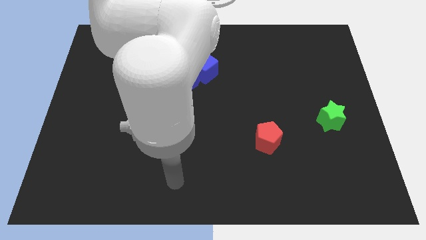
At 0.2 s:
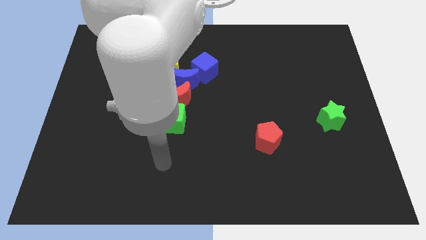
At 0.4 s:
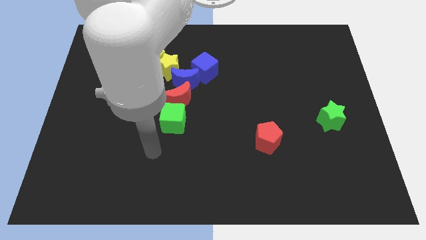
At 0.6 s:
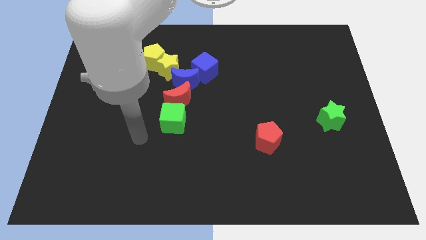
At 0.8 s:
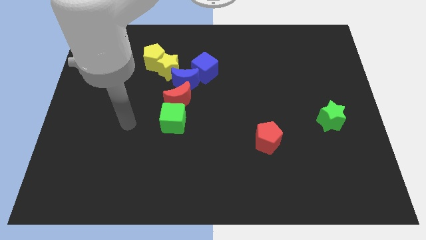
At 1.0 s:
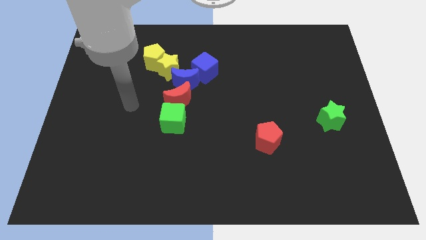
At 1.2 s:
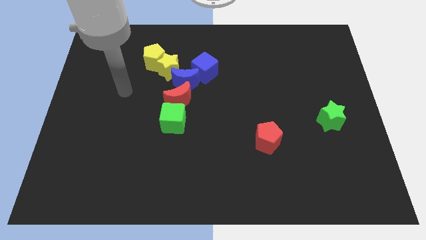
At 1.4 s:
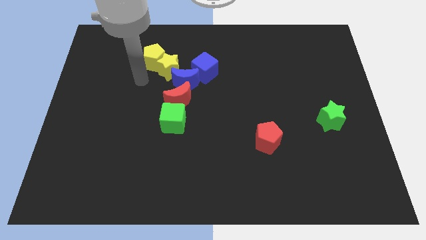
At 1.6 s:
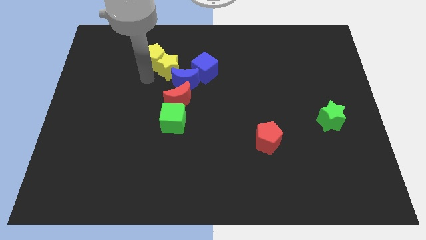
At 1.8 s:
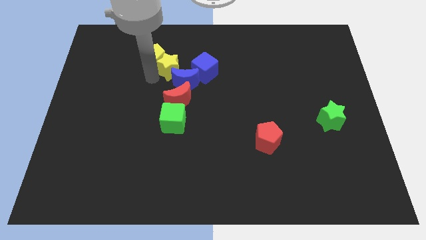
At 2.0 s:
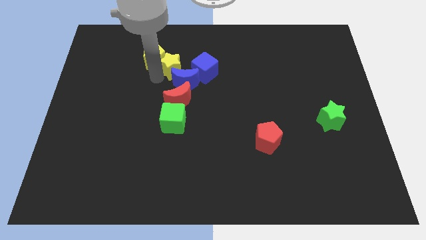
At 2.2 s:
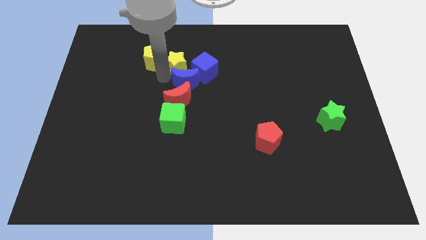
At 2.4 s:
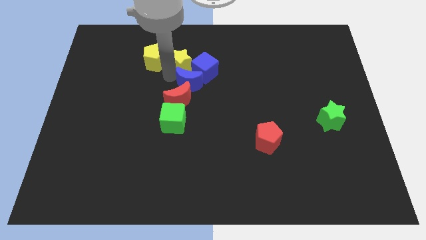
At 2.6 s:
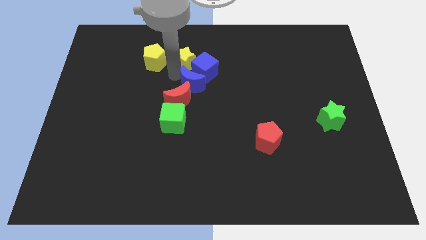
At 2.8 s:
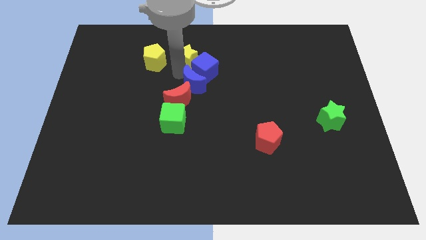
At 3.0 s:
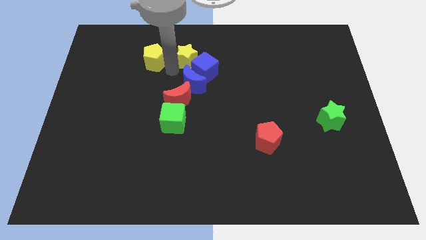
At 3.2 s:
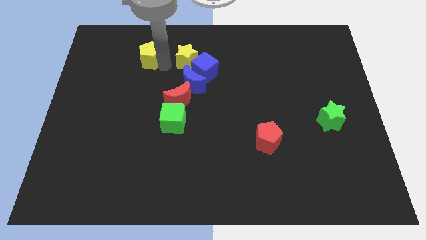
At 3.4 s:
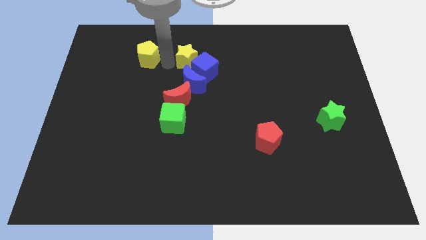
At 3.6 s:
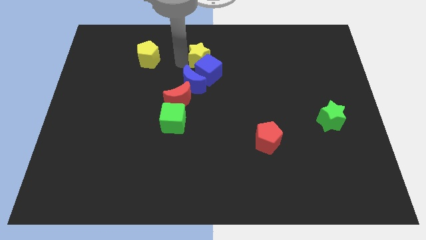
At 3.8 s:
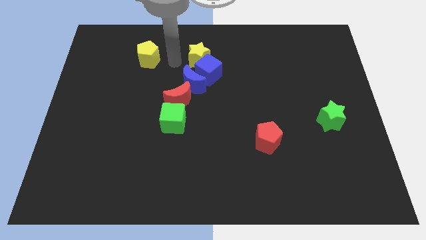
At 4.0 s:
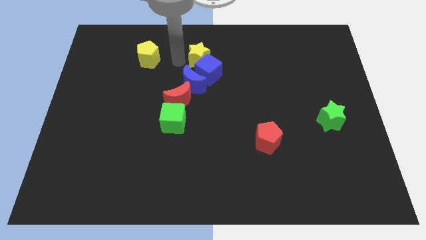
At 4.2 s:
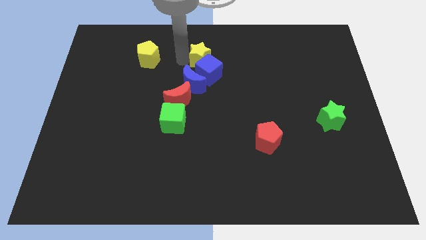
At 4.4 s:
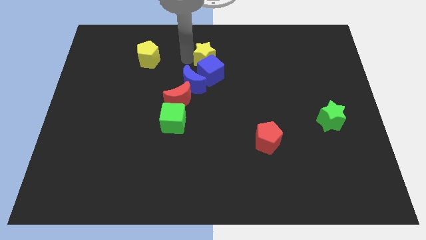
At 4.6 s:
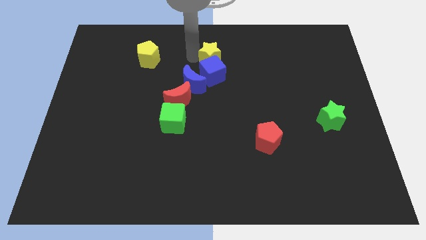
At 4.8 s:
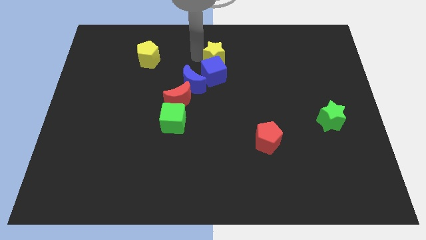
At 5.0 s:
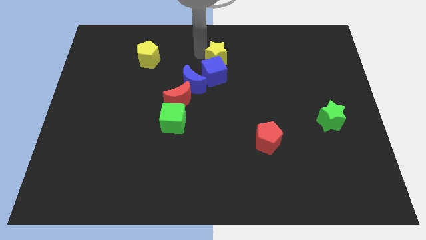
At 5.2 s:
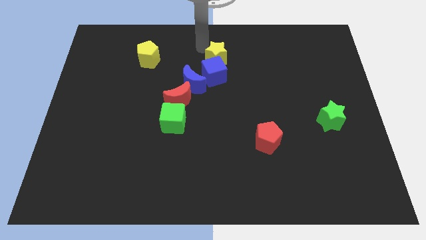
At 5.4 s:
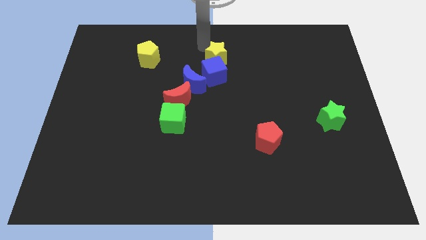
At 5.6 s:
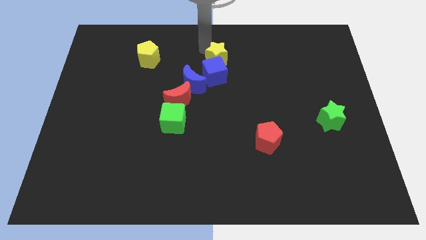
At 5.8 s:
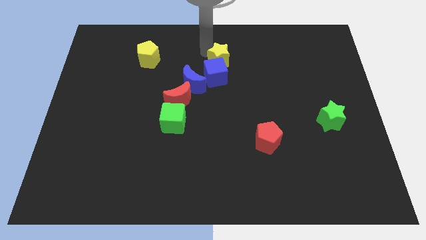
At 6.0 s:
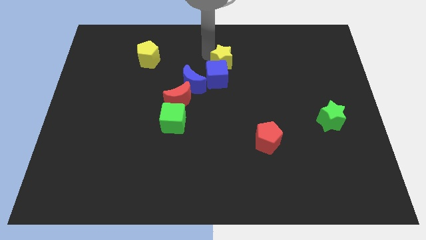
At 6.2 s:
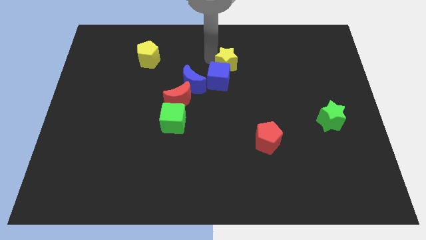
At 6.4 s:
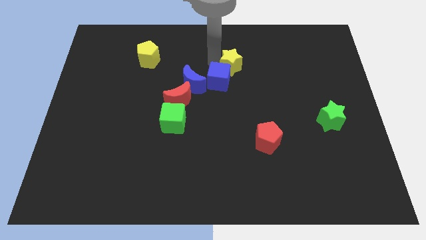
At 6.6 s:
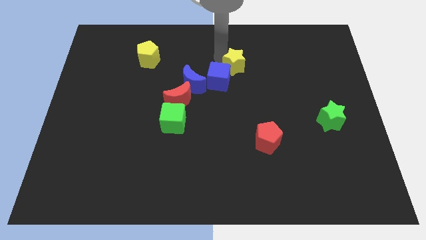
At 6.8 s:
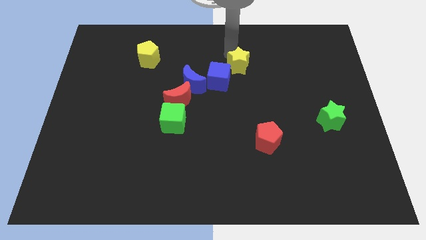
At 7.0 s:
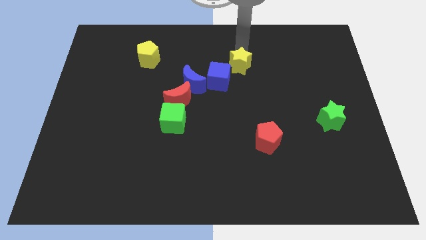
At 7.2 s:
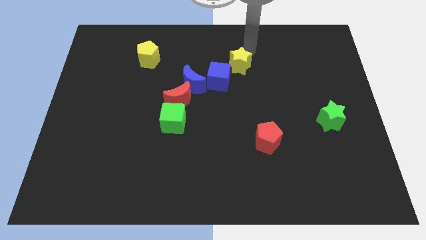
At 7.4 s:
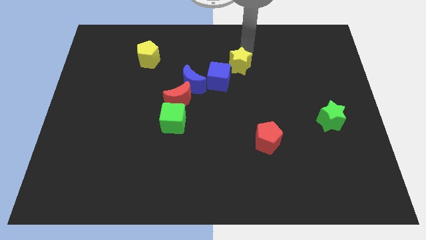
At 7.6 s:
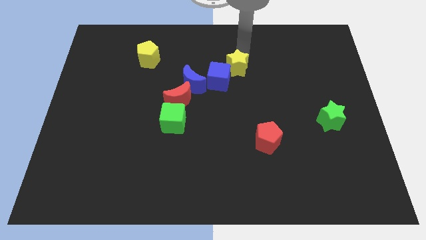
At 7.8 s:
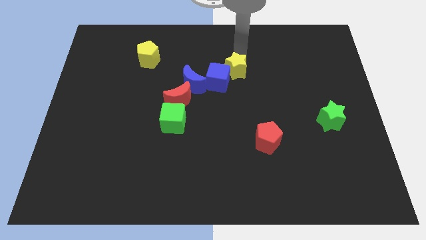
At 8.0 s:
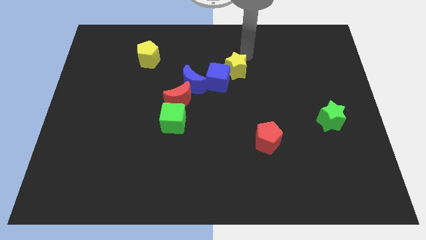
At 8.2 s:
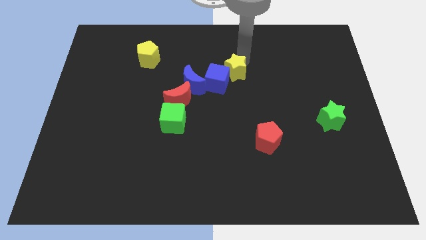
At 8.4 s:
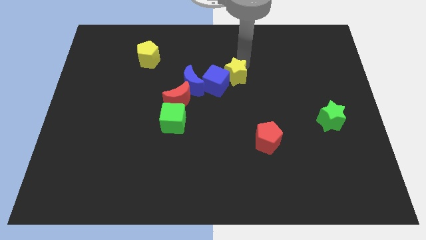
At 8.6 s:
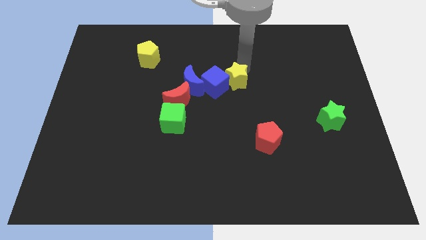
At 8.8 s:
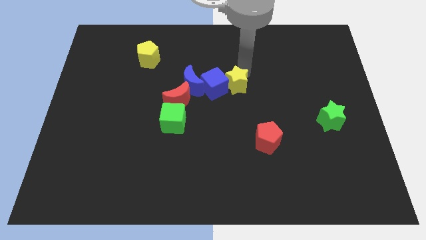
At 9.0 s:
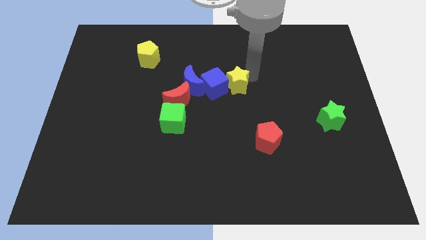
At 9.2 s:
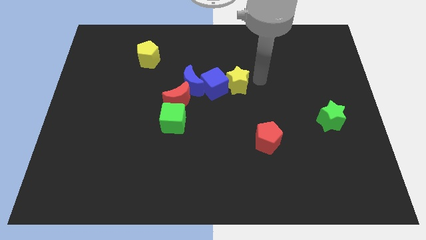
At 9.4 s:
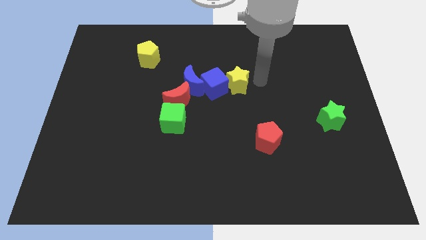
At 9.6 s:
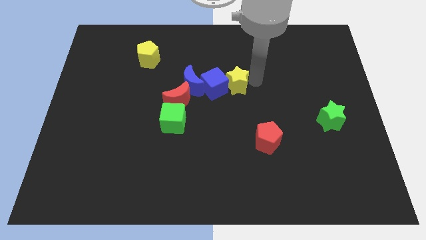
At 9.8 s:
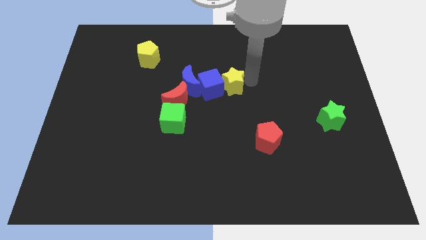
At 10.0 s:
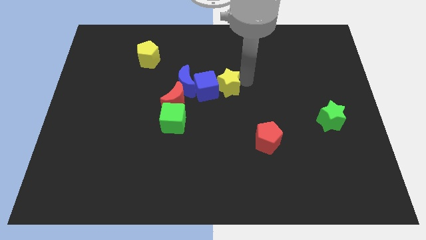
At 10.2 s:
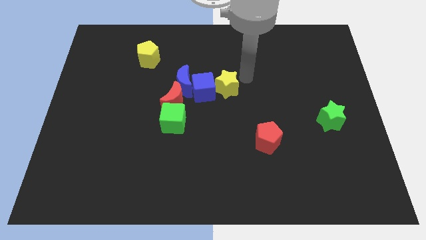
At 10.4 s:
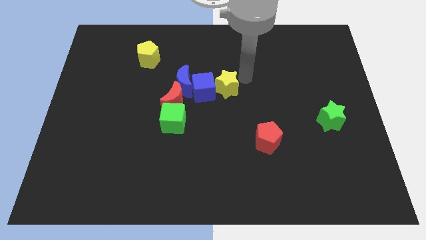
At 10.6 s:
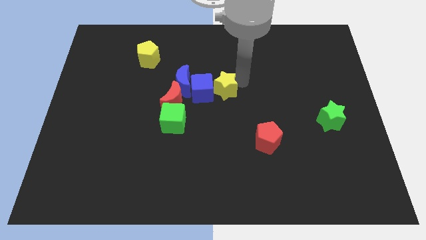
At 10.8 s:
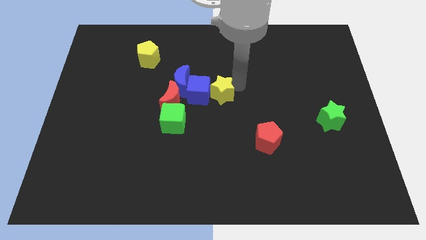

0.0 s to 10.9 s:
put the yellow star diagonally down and to the right of the blue moon

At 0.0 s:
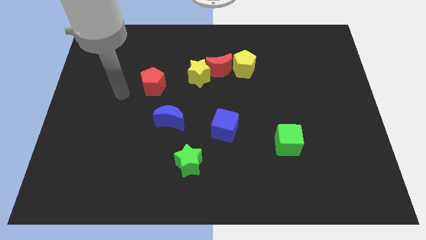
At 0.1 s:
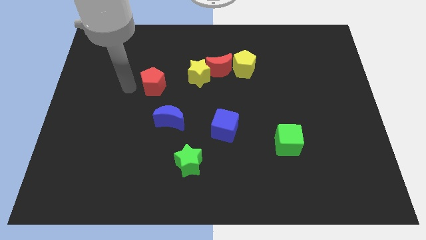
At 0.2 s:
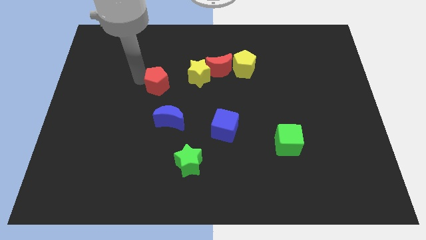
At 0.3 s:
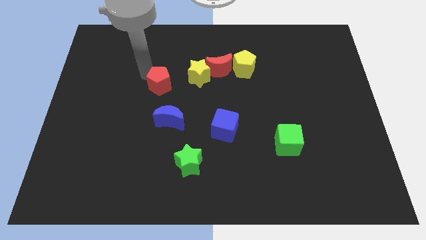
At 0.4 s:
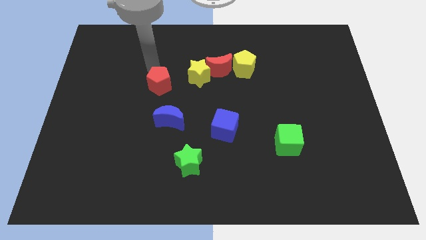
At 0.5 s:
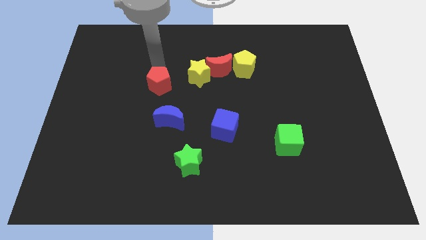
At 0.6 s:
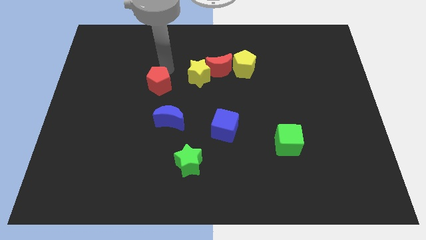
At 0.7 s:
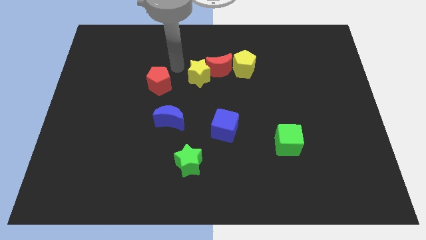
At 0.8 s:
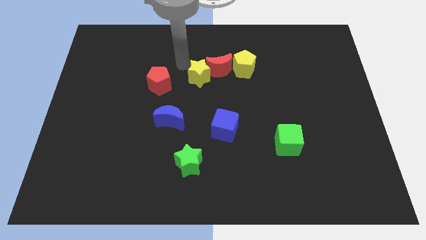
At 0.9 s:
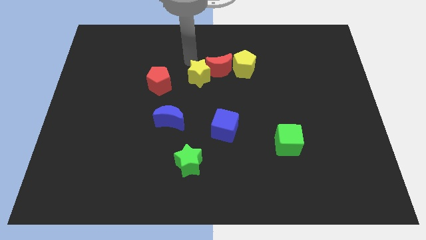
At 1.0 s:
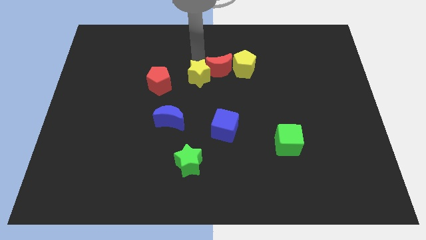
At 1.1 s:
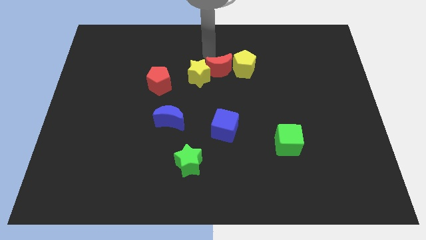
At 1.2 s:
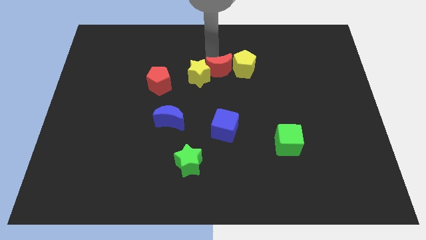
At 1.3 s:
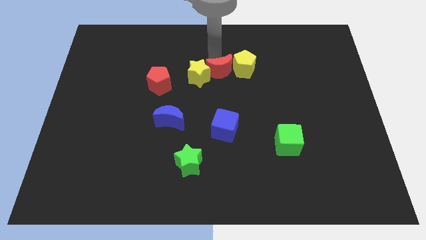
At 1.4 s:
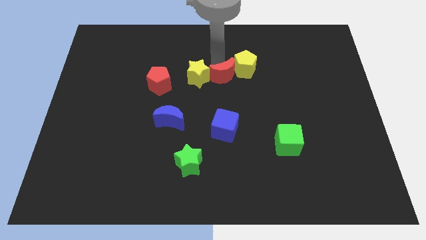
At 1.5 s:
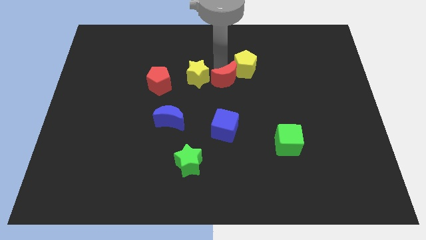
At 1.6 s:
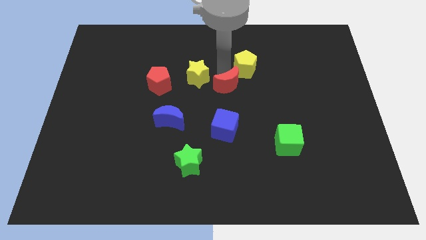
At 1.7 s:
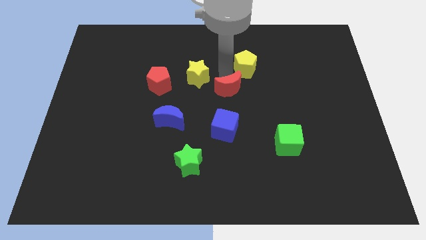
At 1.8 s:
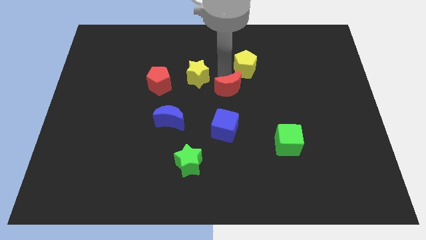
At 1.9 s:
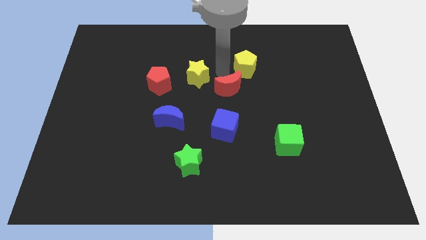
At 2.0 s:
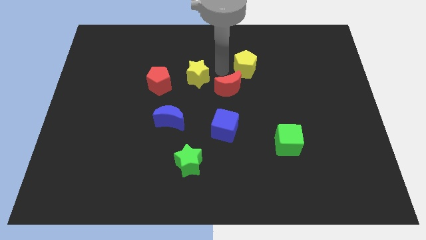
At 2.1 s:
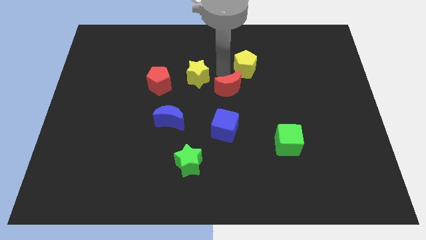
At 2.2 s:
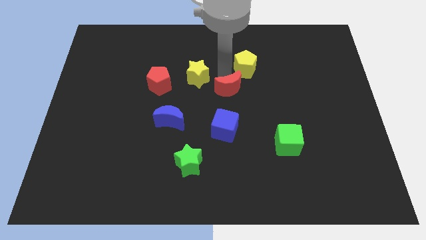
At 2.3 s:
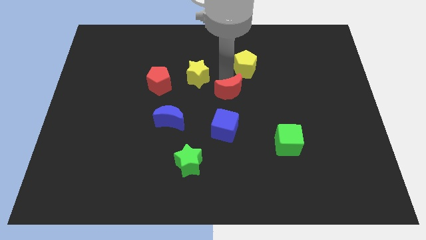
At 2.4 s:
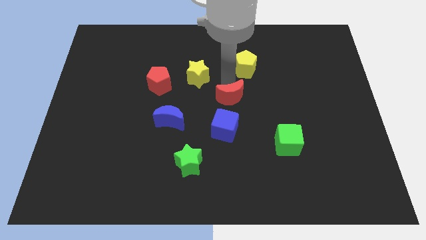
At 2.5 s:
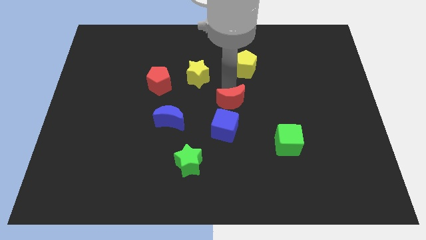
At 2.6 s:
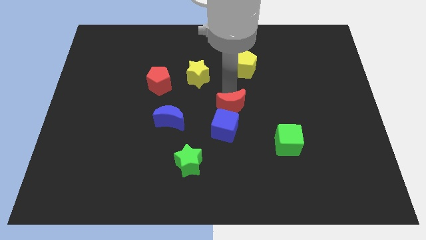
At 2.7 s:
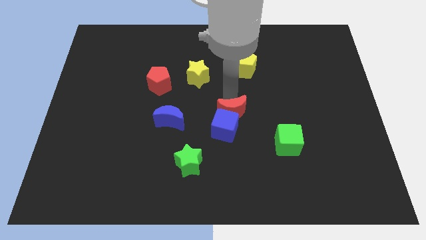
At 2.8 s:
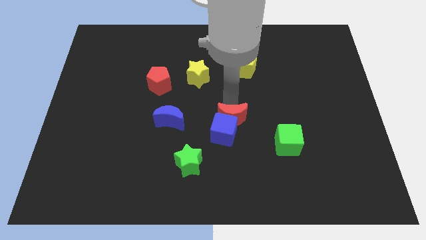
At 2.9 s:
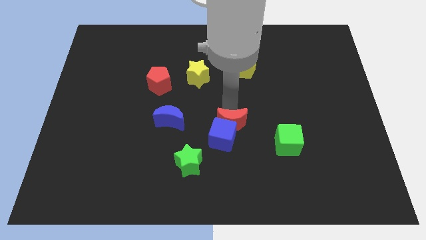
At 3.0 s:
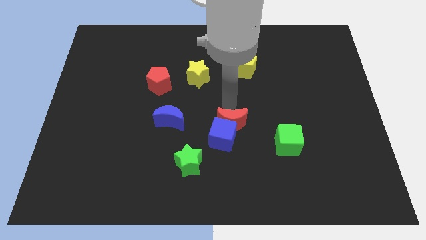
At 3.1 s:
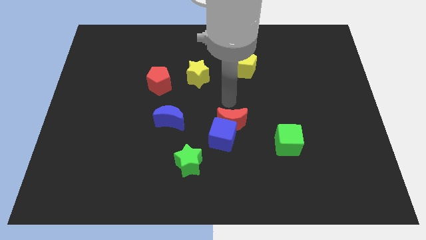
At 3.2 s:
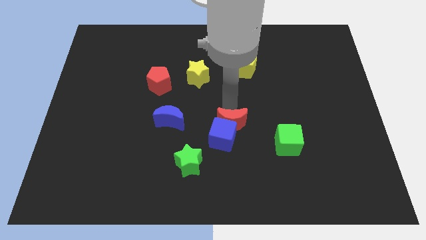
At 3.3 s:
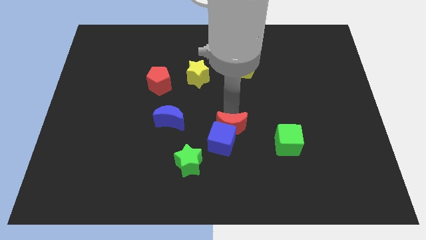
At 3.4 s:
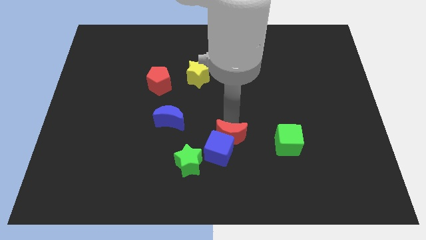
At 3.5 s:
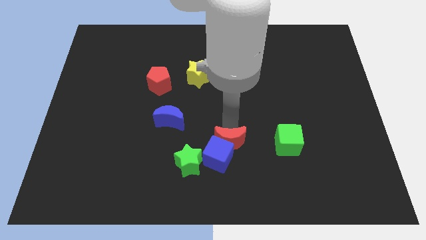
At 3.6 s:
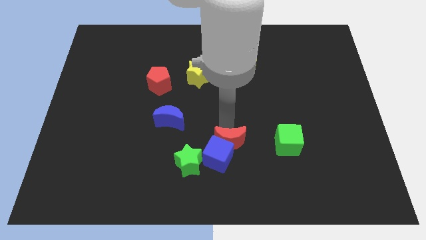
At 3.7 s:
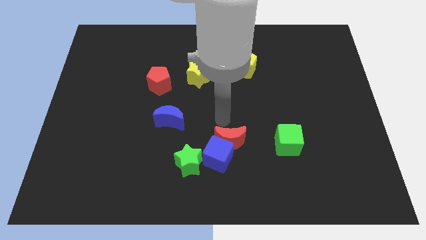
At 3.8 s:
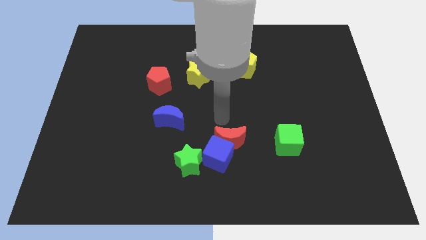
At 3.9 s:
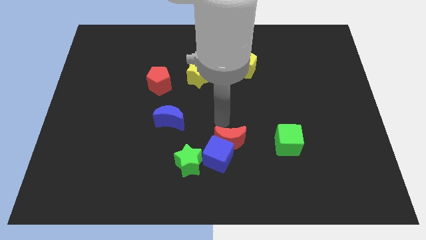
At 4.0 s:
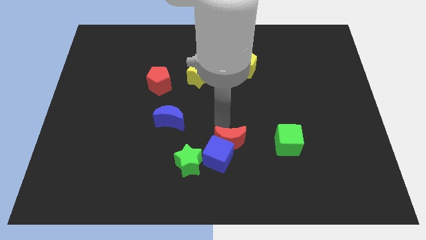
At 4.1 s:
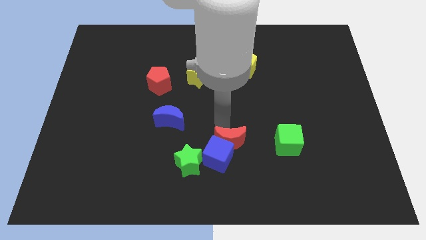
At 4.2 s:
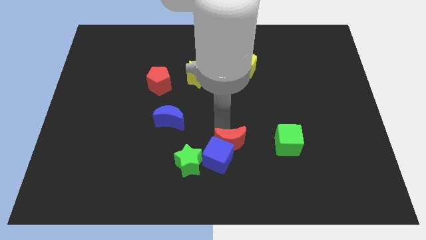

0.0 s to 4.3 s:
slide the red moon to the right of the green star
